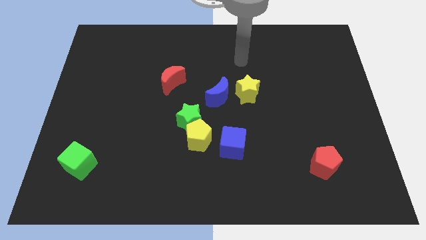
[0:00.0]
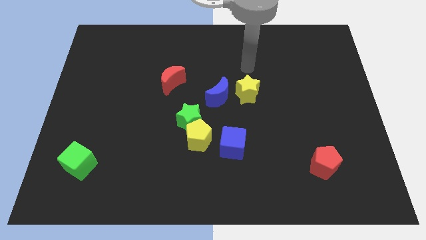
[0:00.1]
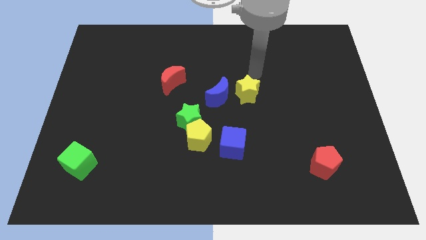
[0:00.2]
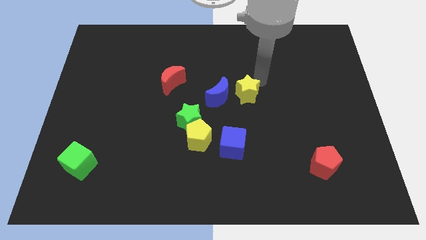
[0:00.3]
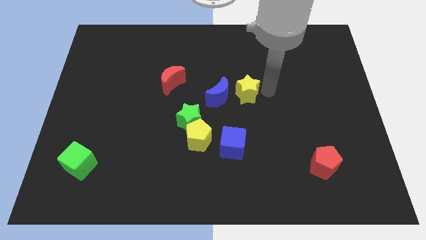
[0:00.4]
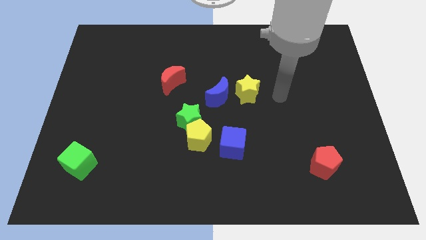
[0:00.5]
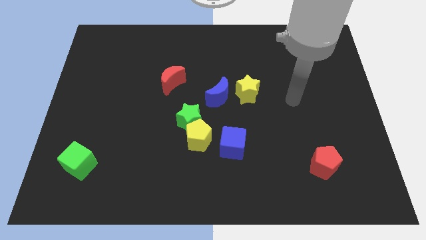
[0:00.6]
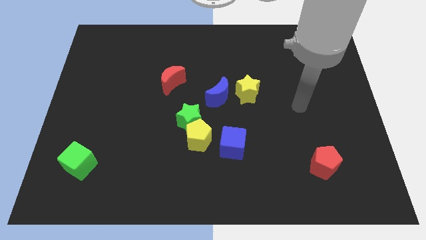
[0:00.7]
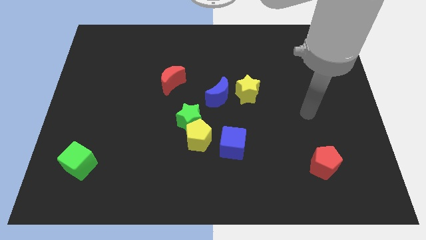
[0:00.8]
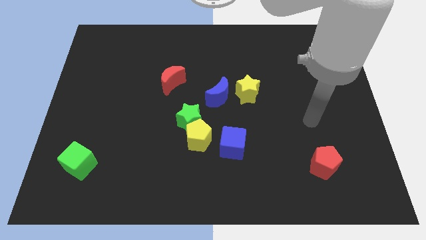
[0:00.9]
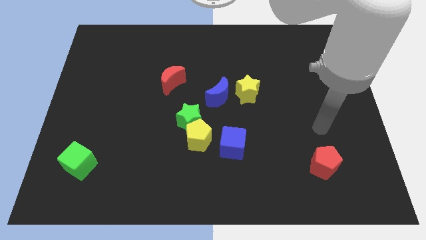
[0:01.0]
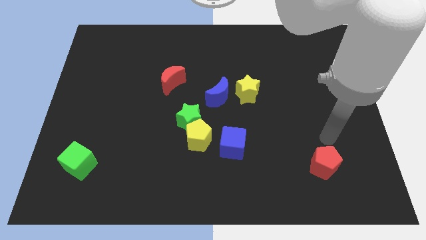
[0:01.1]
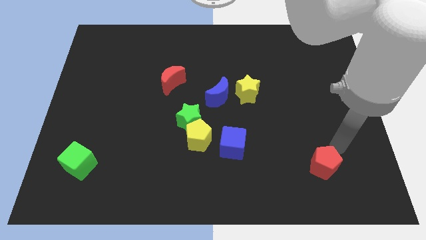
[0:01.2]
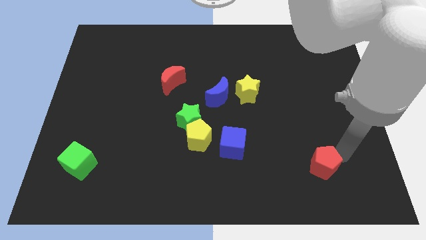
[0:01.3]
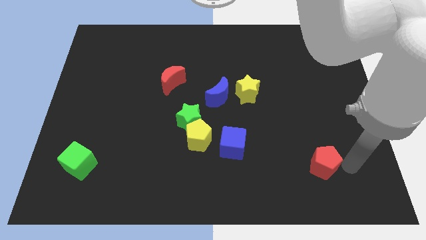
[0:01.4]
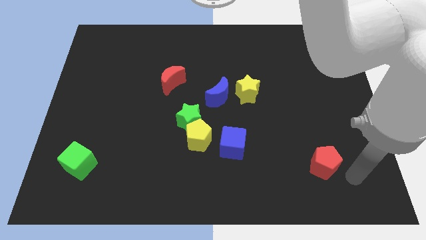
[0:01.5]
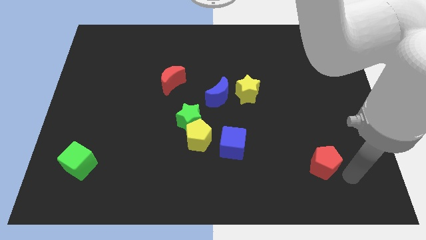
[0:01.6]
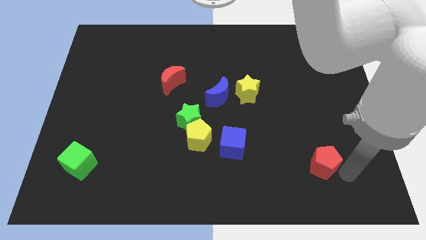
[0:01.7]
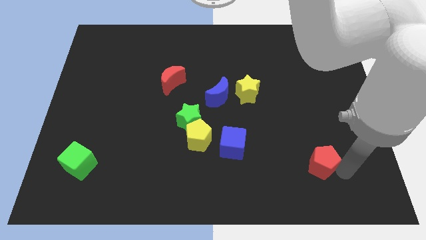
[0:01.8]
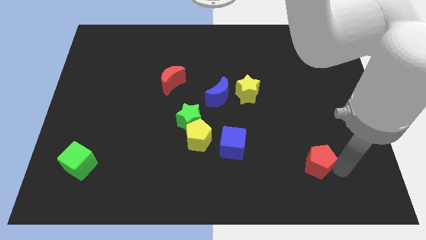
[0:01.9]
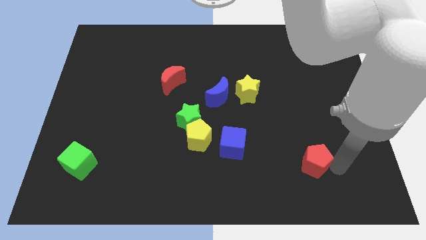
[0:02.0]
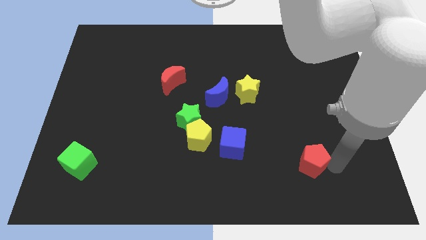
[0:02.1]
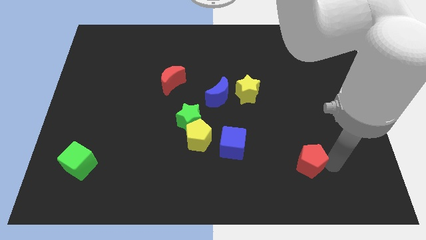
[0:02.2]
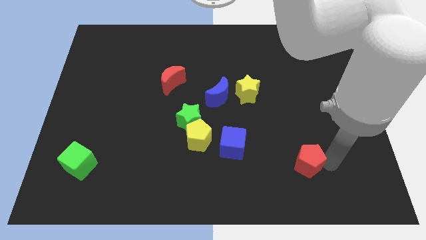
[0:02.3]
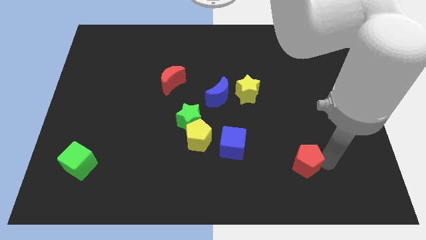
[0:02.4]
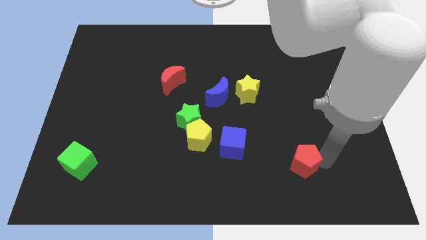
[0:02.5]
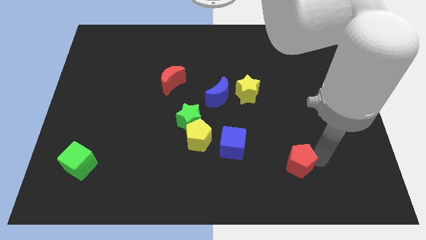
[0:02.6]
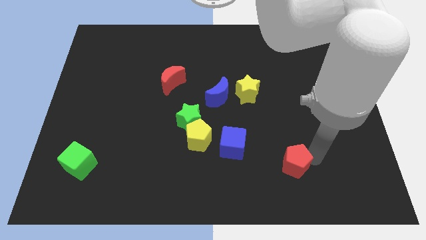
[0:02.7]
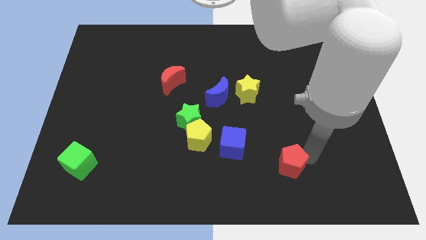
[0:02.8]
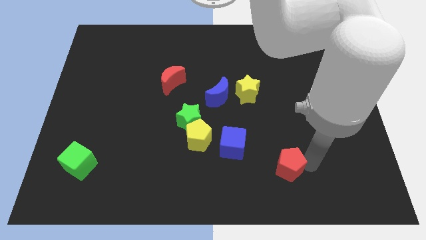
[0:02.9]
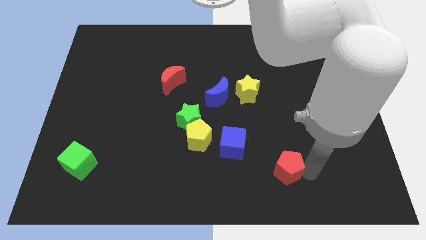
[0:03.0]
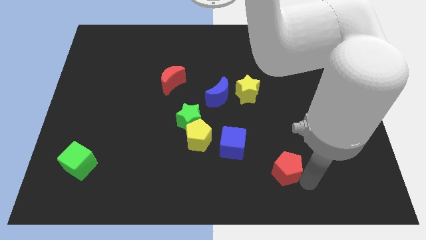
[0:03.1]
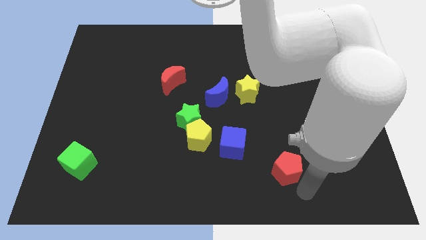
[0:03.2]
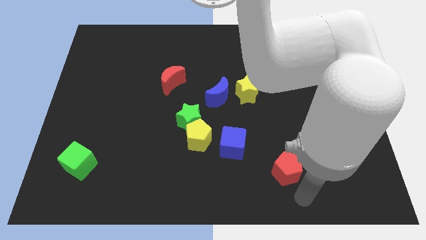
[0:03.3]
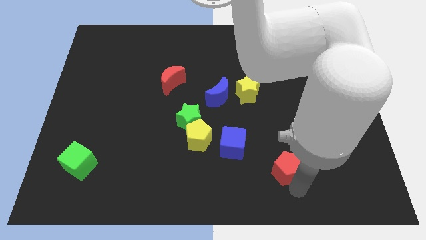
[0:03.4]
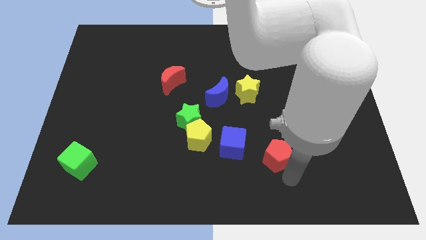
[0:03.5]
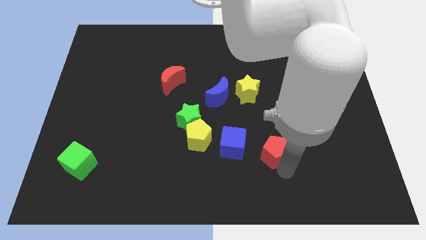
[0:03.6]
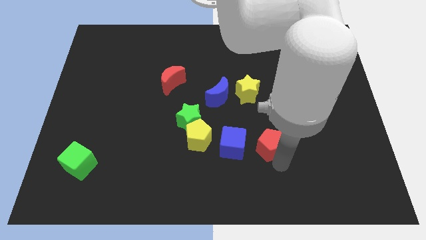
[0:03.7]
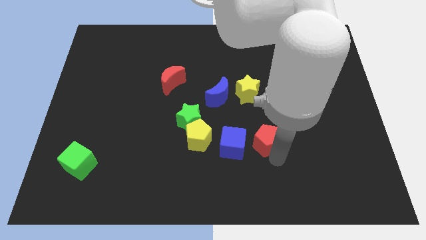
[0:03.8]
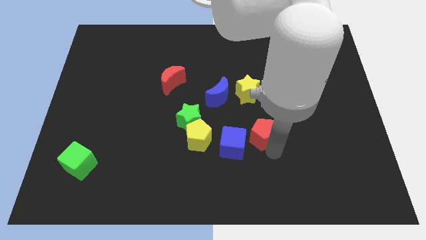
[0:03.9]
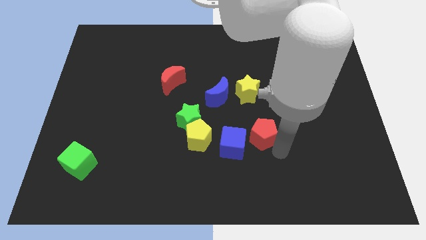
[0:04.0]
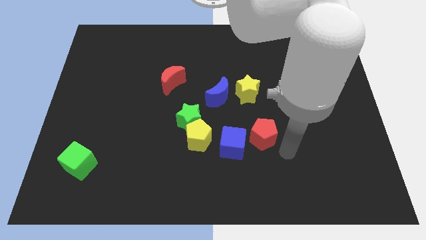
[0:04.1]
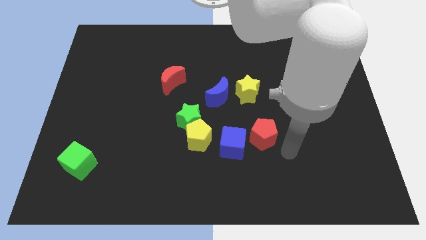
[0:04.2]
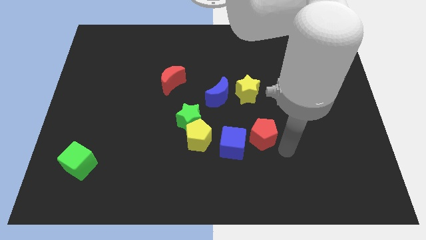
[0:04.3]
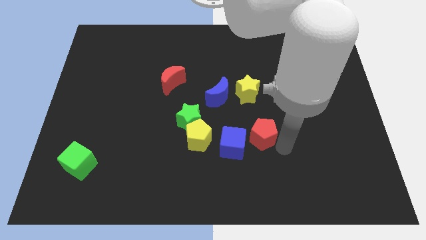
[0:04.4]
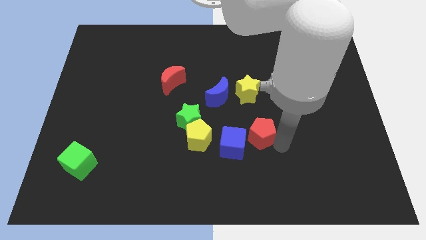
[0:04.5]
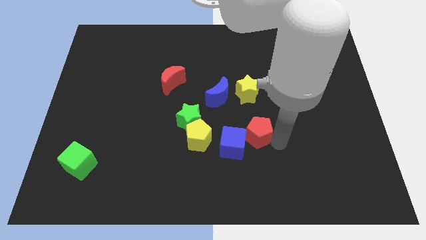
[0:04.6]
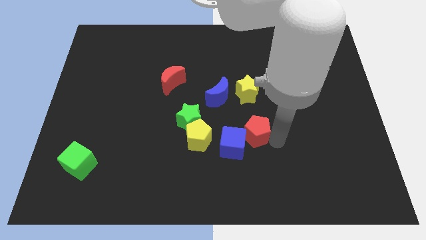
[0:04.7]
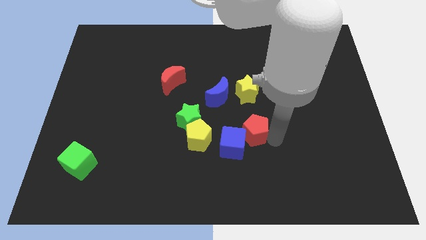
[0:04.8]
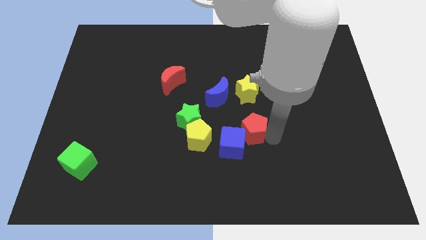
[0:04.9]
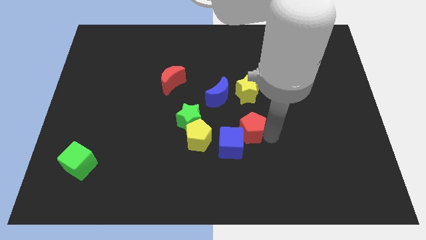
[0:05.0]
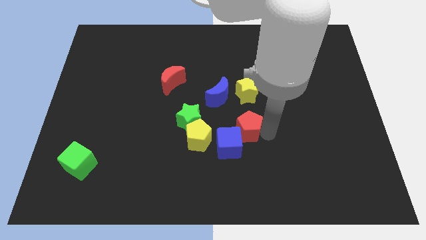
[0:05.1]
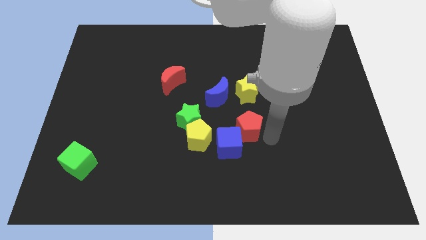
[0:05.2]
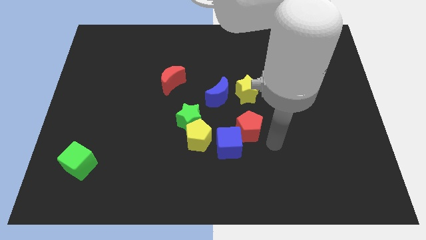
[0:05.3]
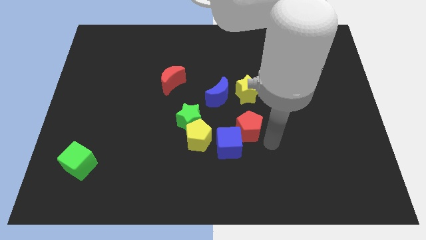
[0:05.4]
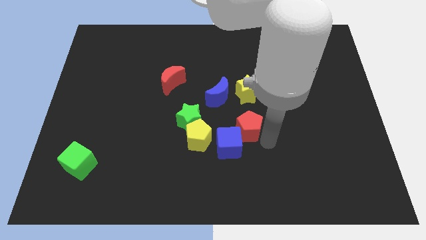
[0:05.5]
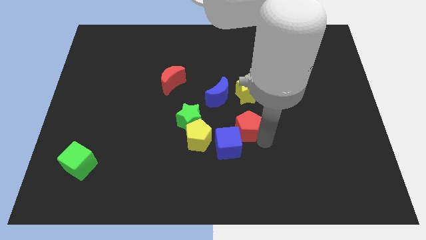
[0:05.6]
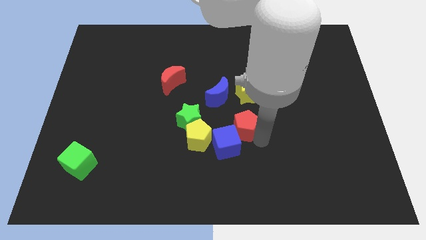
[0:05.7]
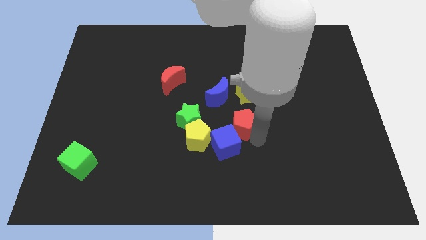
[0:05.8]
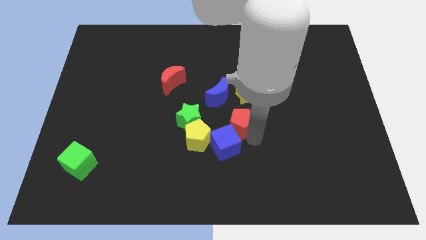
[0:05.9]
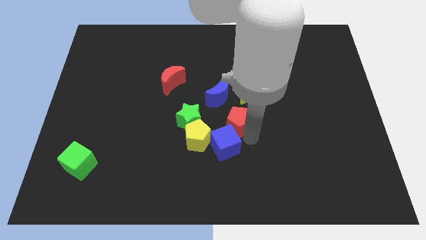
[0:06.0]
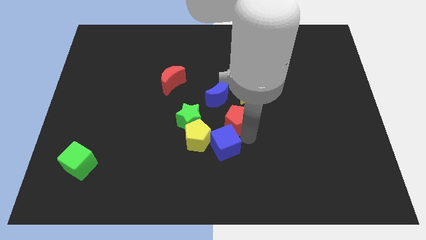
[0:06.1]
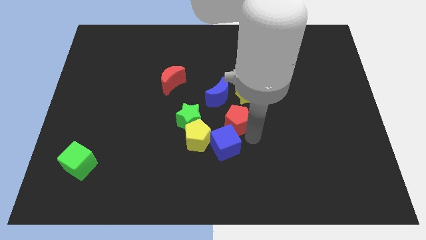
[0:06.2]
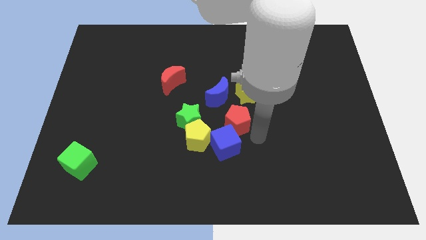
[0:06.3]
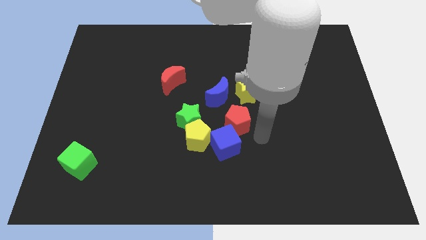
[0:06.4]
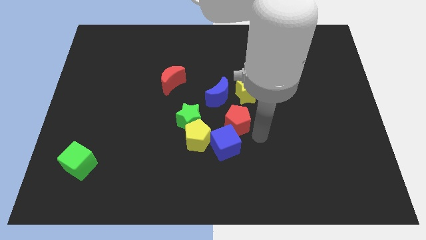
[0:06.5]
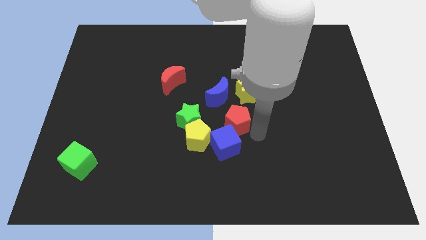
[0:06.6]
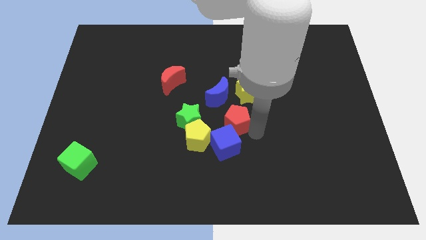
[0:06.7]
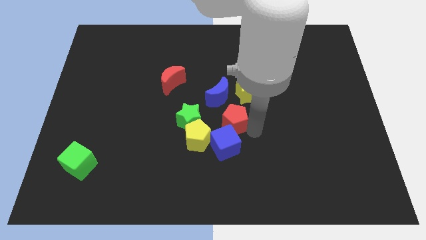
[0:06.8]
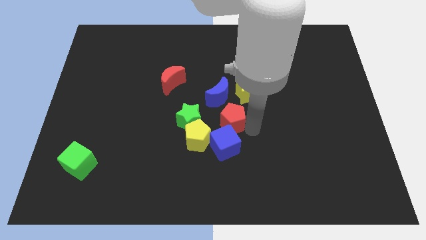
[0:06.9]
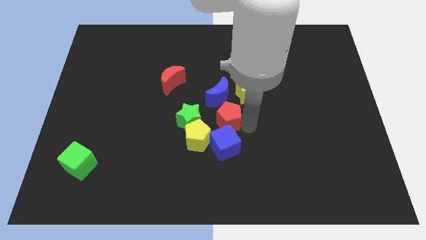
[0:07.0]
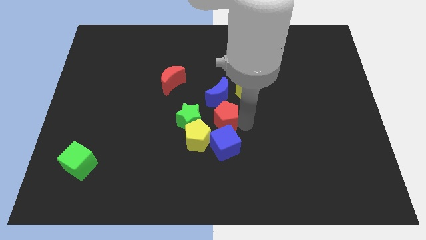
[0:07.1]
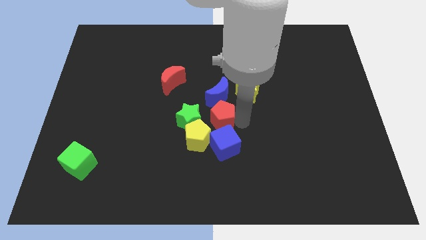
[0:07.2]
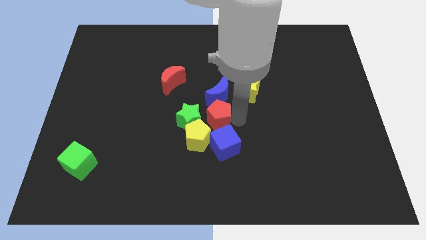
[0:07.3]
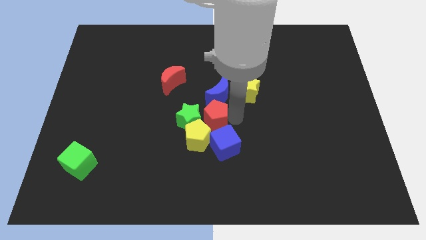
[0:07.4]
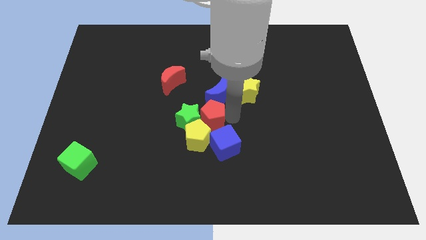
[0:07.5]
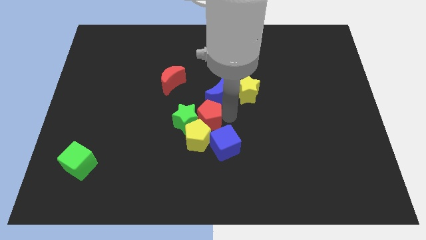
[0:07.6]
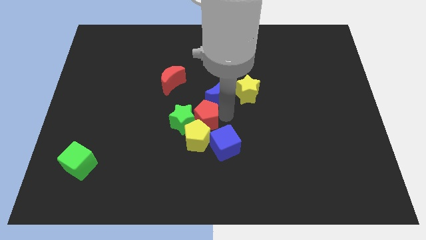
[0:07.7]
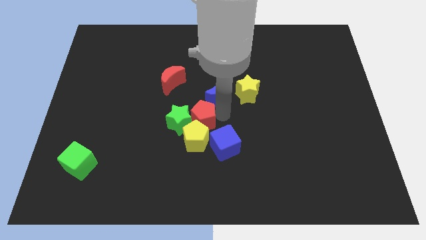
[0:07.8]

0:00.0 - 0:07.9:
slide the red pentagon to the top left of the yellow pentagon
